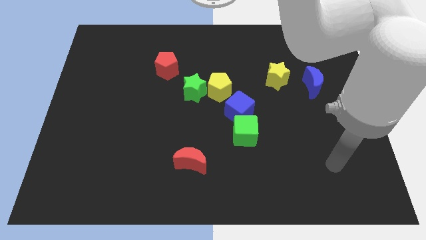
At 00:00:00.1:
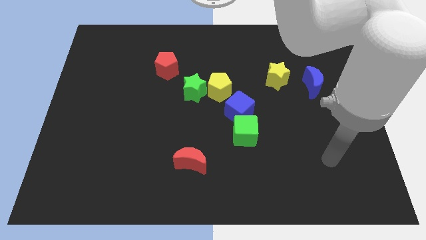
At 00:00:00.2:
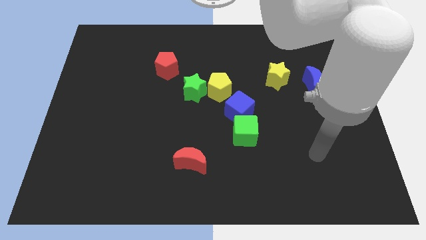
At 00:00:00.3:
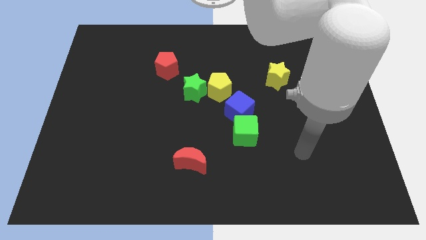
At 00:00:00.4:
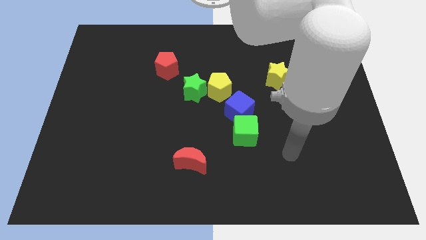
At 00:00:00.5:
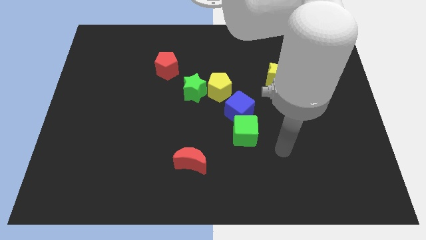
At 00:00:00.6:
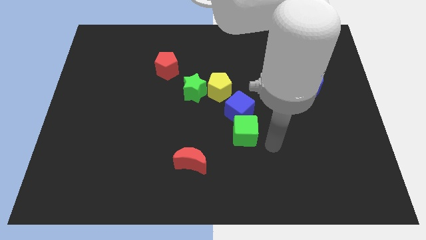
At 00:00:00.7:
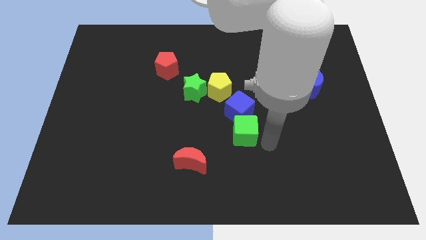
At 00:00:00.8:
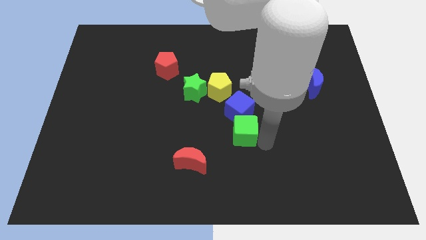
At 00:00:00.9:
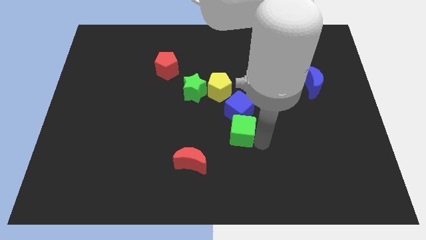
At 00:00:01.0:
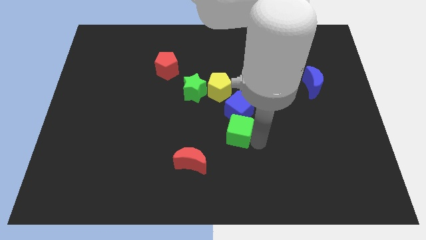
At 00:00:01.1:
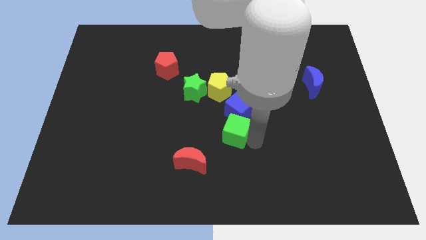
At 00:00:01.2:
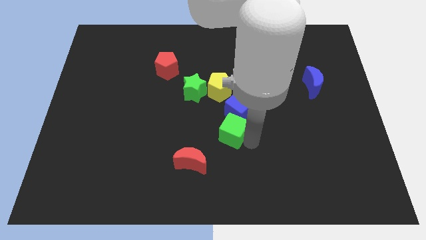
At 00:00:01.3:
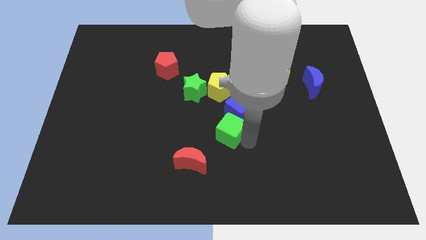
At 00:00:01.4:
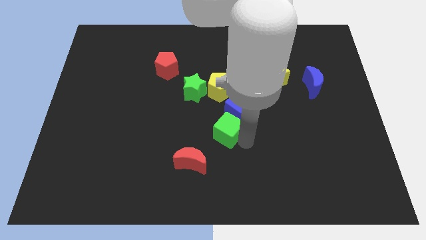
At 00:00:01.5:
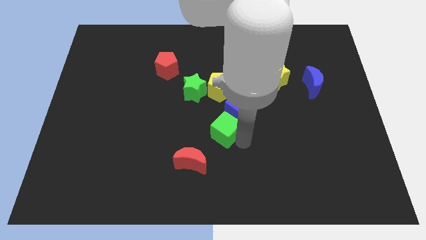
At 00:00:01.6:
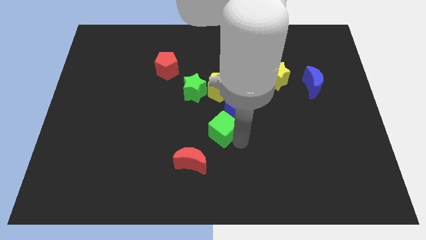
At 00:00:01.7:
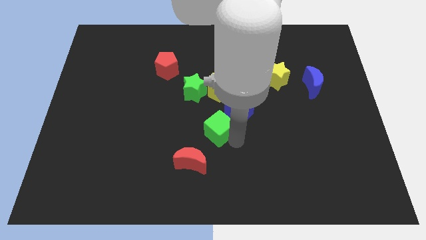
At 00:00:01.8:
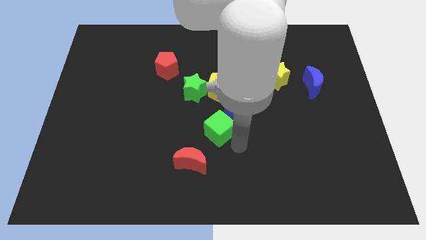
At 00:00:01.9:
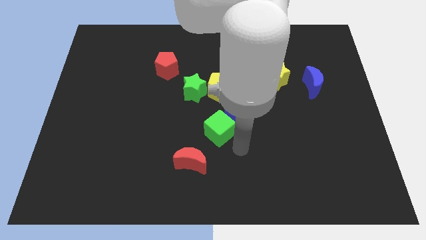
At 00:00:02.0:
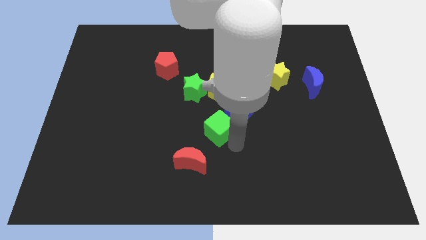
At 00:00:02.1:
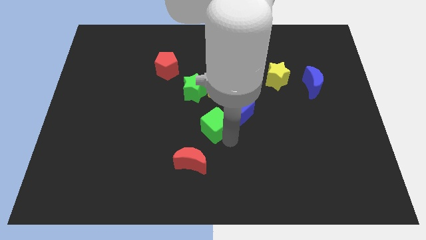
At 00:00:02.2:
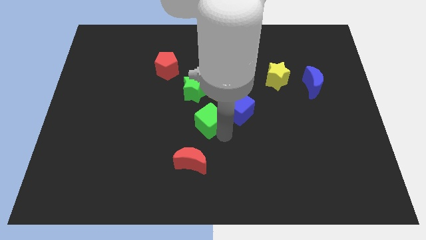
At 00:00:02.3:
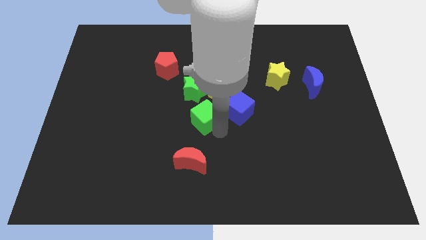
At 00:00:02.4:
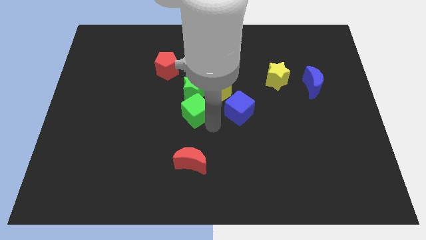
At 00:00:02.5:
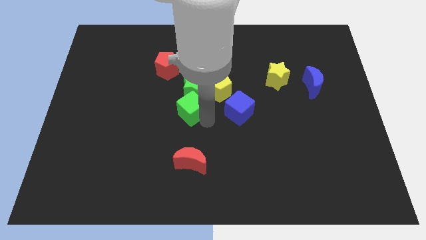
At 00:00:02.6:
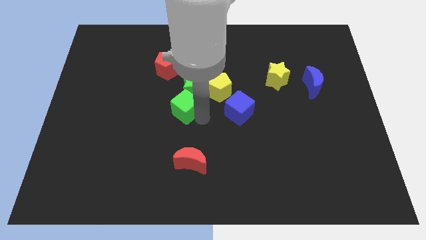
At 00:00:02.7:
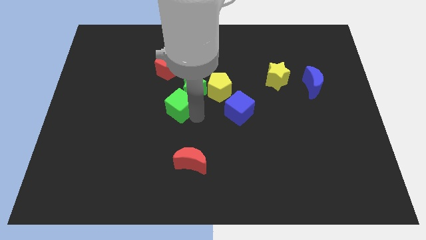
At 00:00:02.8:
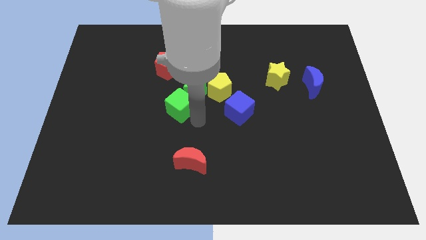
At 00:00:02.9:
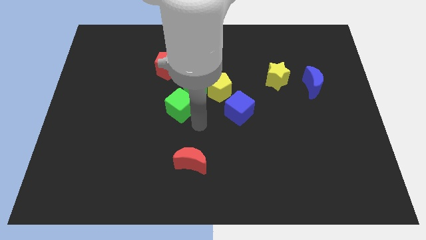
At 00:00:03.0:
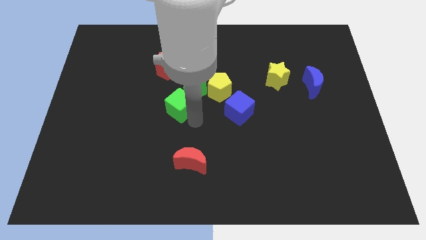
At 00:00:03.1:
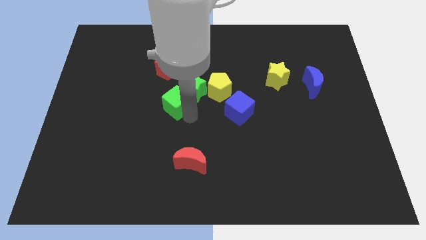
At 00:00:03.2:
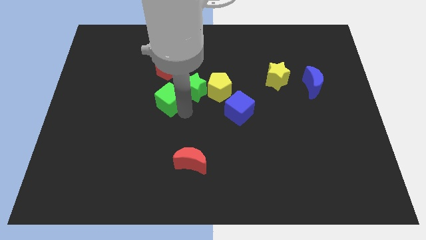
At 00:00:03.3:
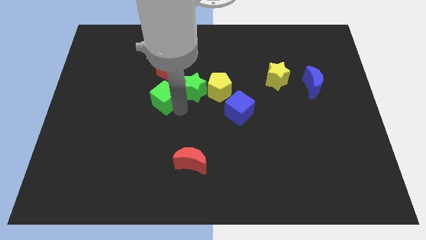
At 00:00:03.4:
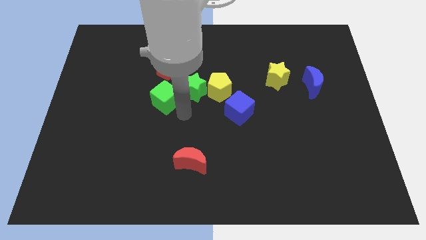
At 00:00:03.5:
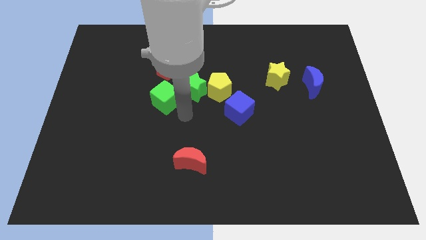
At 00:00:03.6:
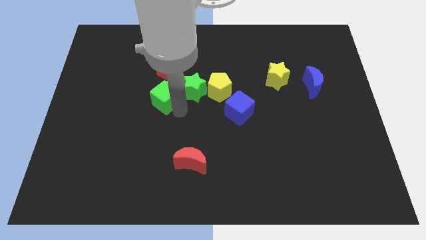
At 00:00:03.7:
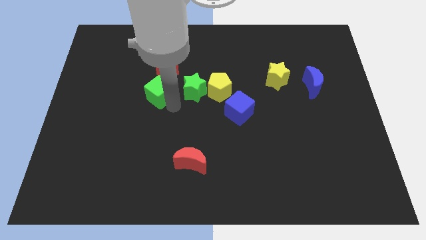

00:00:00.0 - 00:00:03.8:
move the green cube diagonally up and to the left

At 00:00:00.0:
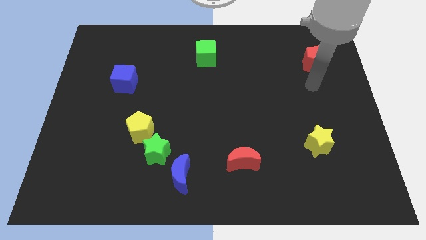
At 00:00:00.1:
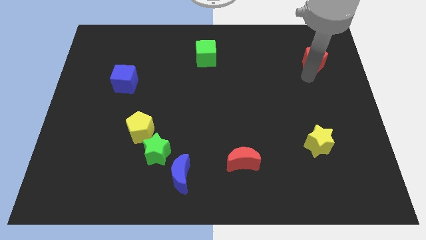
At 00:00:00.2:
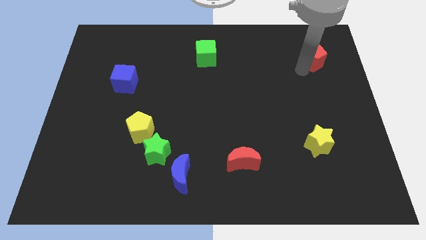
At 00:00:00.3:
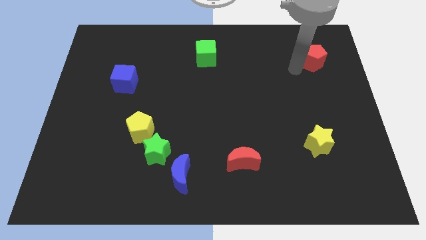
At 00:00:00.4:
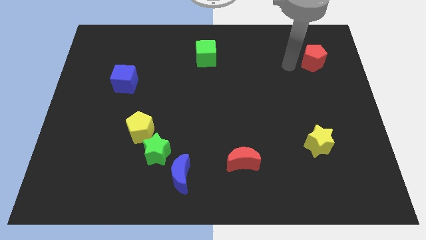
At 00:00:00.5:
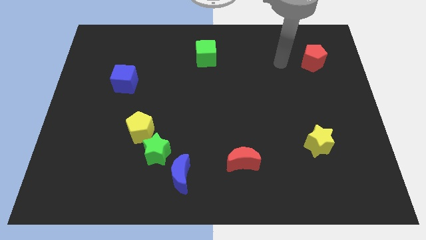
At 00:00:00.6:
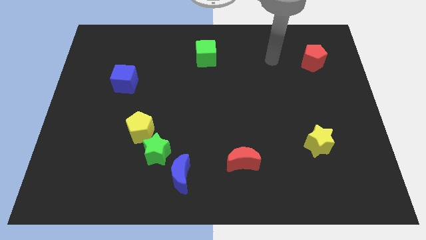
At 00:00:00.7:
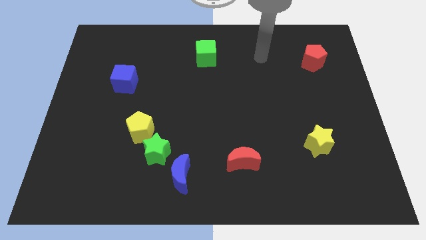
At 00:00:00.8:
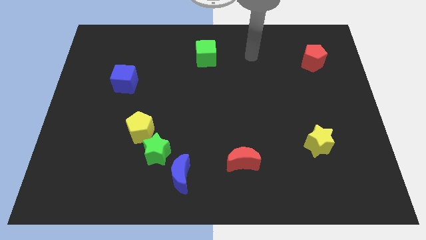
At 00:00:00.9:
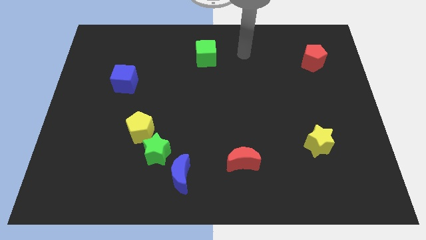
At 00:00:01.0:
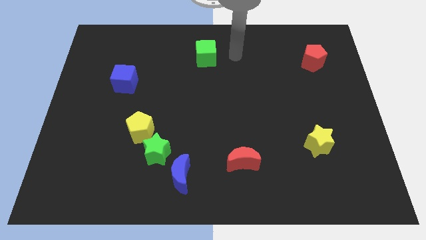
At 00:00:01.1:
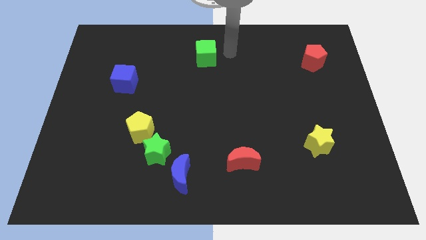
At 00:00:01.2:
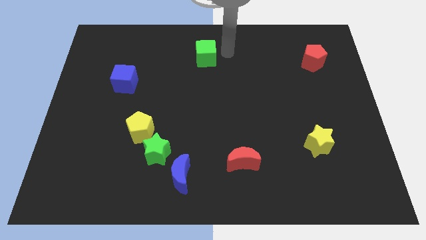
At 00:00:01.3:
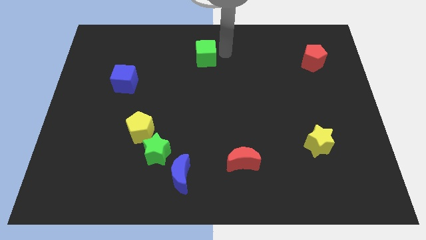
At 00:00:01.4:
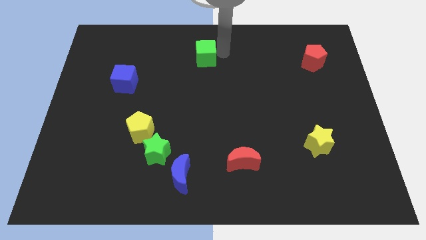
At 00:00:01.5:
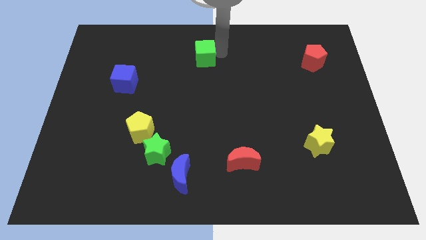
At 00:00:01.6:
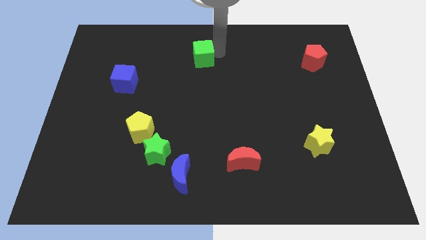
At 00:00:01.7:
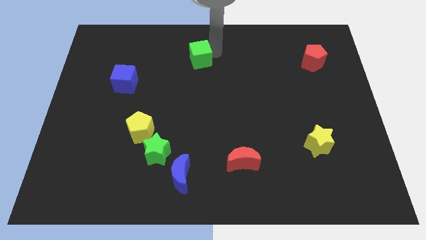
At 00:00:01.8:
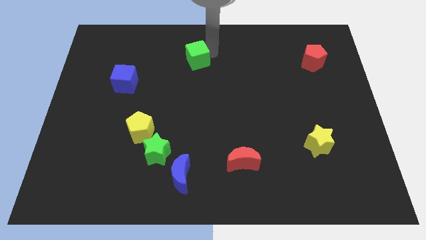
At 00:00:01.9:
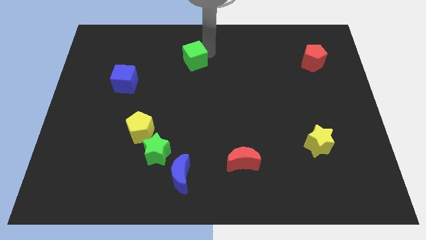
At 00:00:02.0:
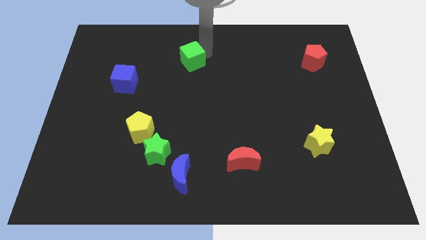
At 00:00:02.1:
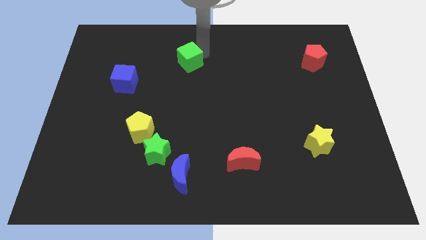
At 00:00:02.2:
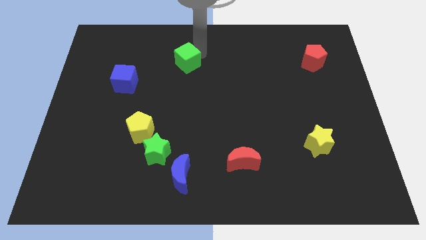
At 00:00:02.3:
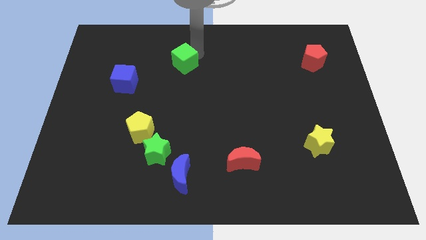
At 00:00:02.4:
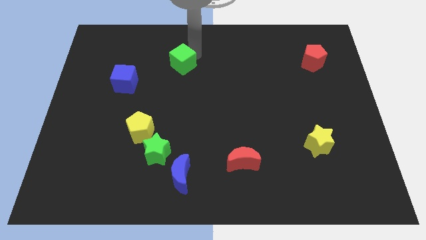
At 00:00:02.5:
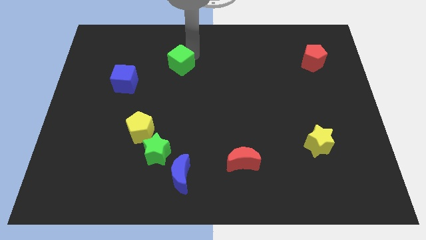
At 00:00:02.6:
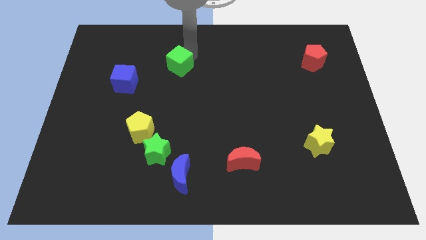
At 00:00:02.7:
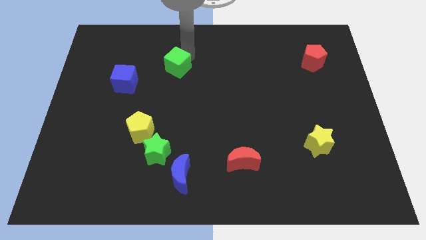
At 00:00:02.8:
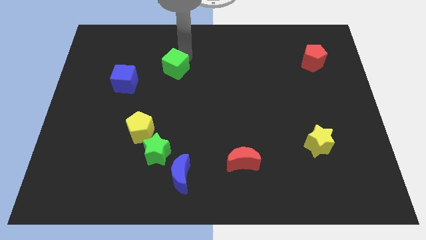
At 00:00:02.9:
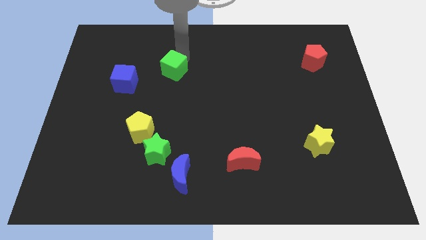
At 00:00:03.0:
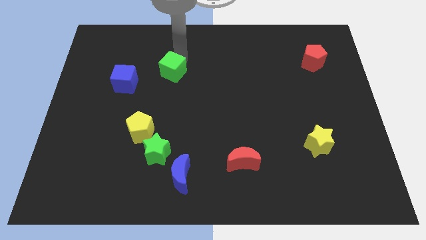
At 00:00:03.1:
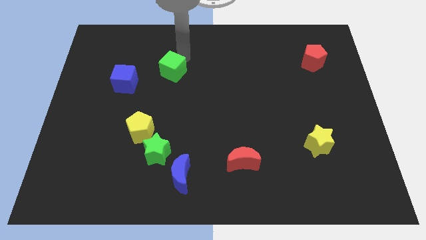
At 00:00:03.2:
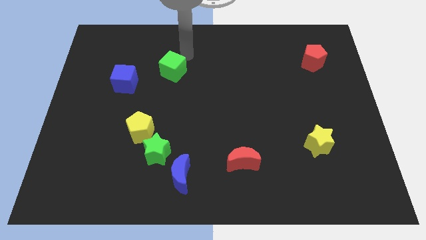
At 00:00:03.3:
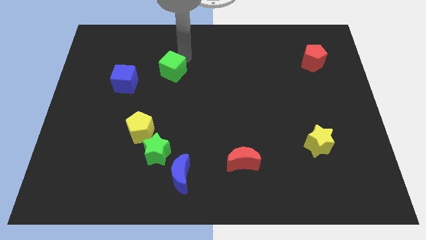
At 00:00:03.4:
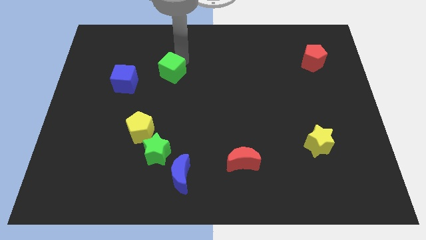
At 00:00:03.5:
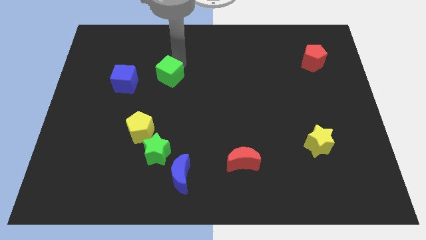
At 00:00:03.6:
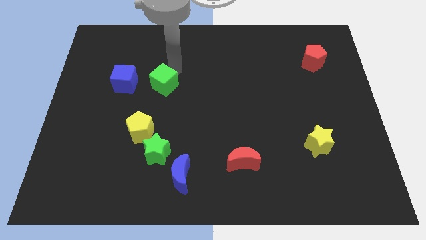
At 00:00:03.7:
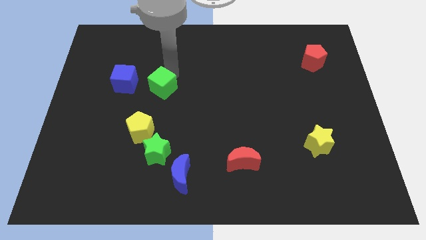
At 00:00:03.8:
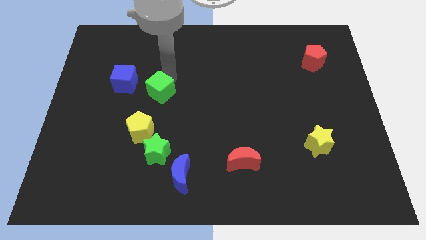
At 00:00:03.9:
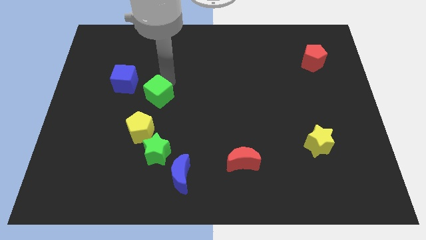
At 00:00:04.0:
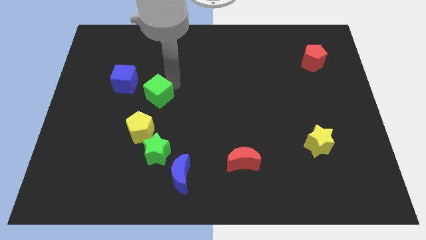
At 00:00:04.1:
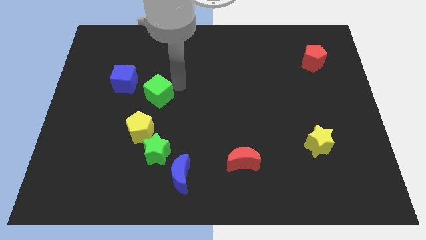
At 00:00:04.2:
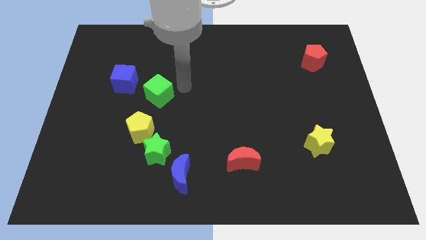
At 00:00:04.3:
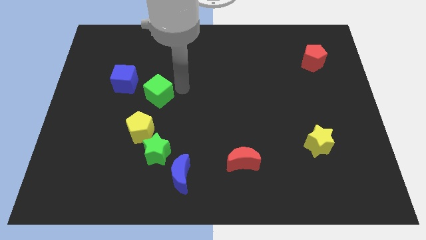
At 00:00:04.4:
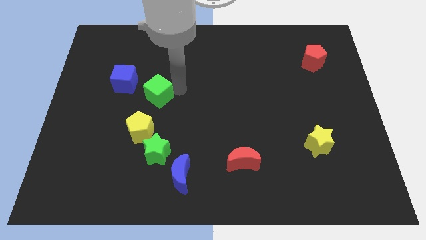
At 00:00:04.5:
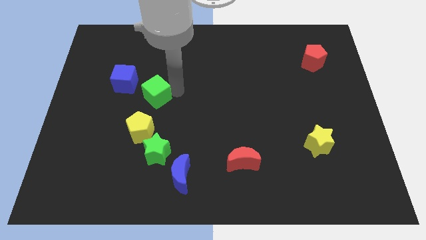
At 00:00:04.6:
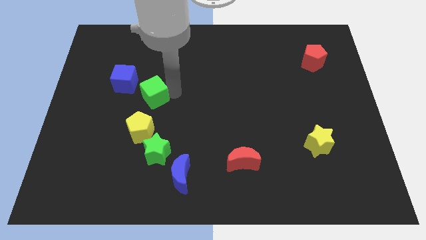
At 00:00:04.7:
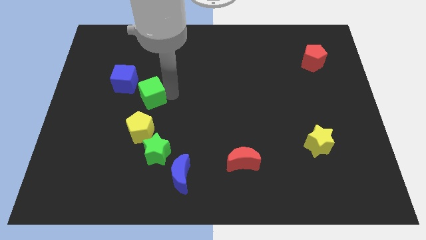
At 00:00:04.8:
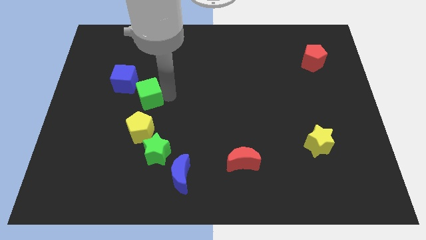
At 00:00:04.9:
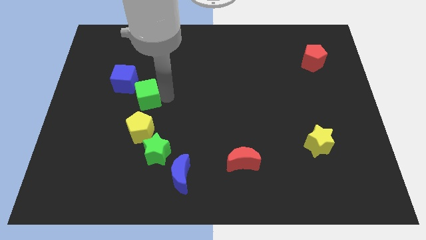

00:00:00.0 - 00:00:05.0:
push the green cube down and to the left
